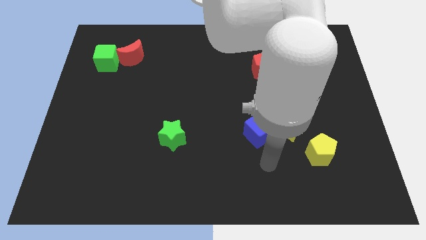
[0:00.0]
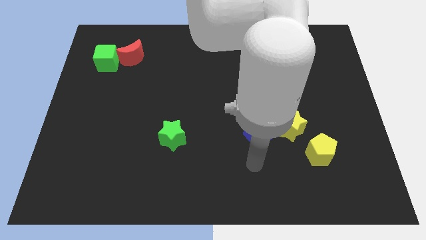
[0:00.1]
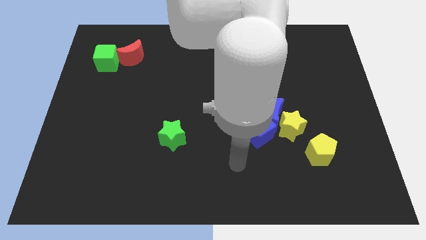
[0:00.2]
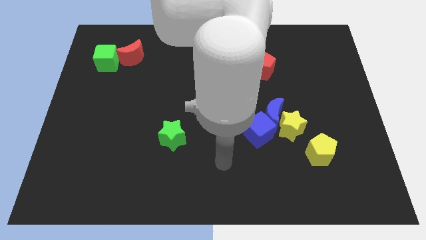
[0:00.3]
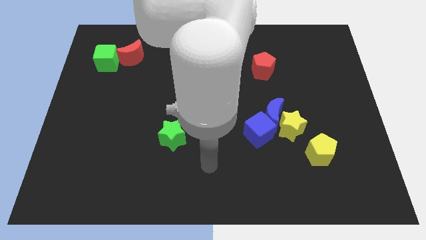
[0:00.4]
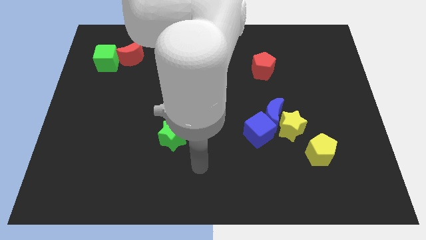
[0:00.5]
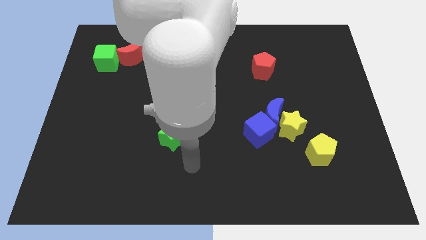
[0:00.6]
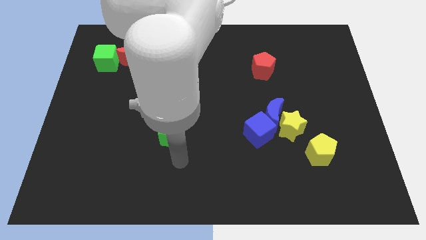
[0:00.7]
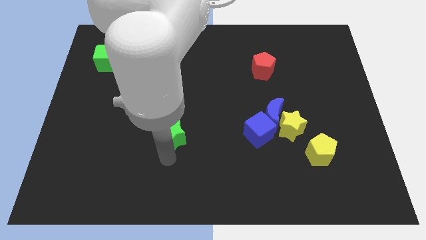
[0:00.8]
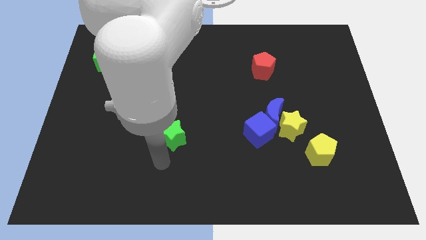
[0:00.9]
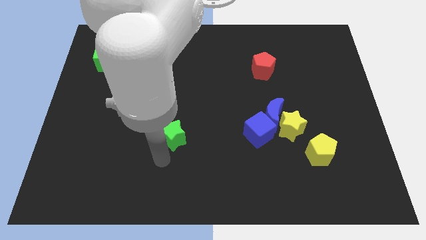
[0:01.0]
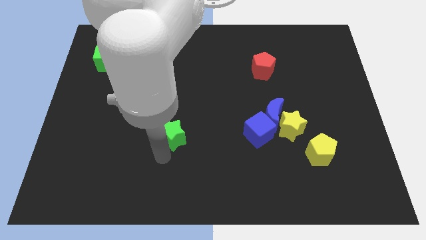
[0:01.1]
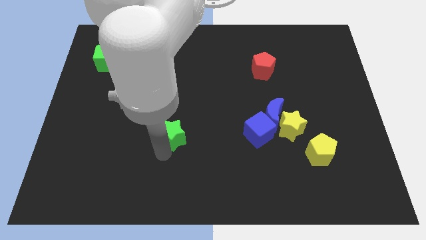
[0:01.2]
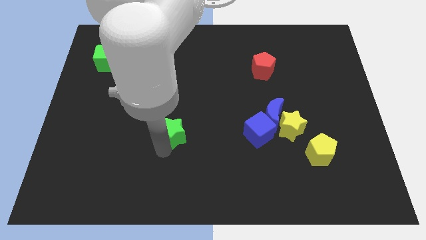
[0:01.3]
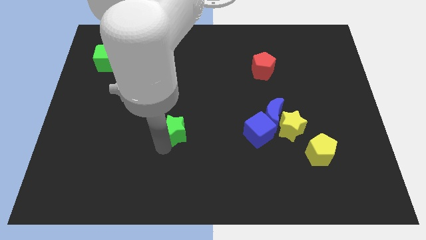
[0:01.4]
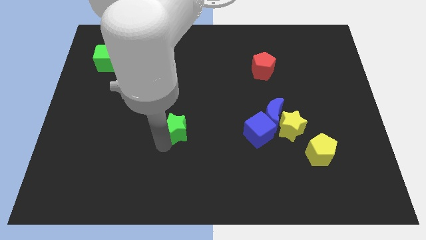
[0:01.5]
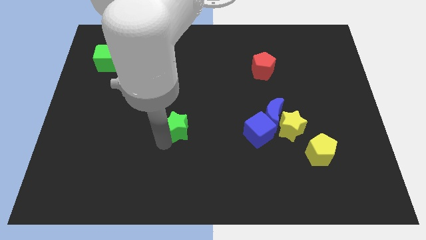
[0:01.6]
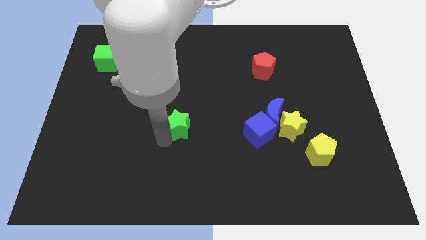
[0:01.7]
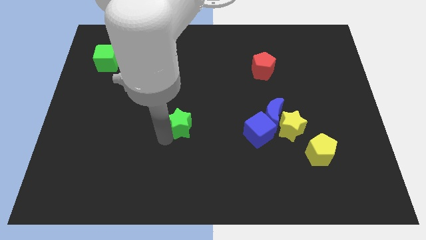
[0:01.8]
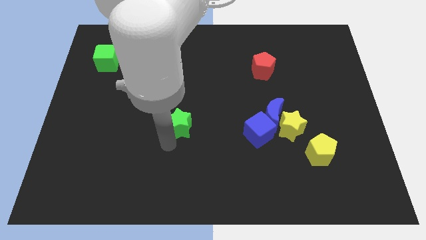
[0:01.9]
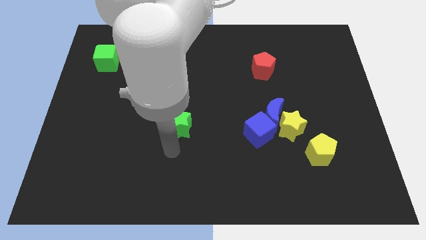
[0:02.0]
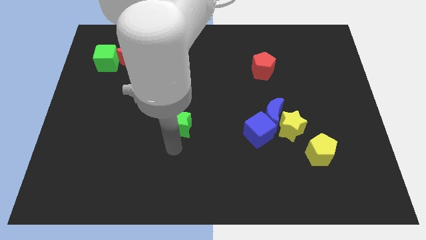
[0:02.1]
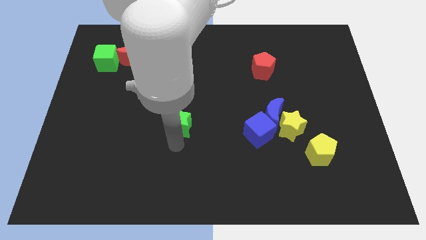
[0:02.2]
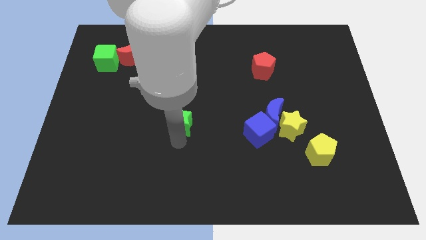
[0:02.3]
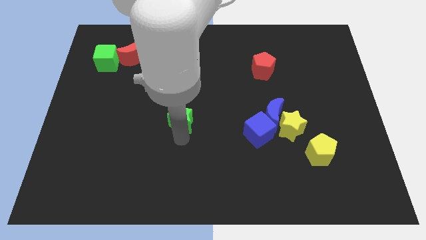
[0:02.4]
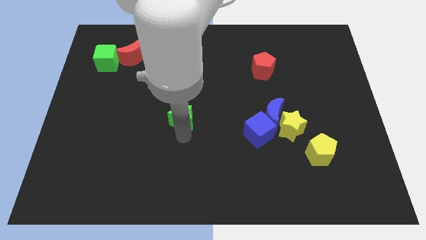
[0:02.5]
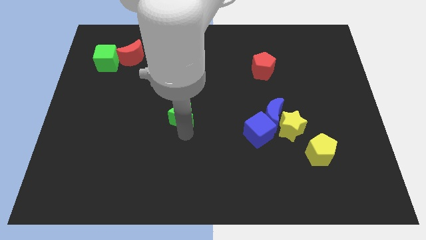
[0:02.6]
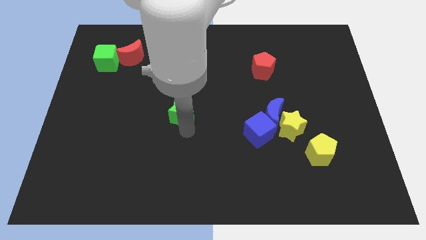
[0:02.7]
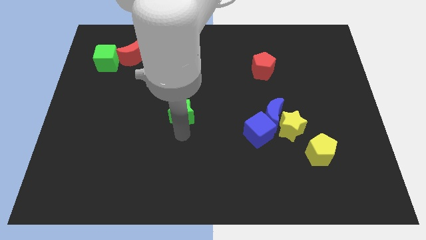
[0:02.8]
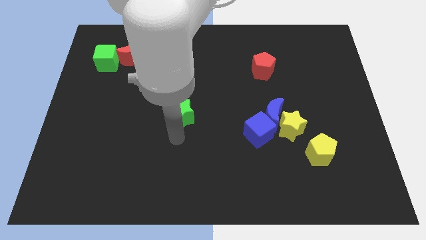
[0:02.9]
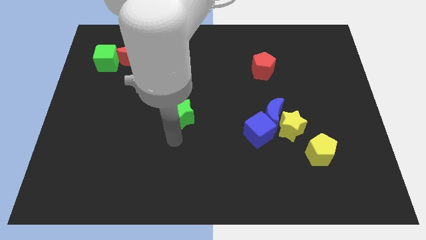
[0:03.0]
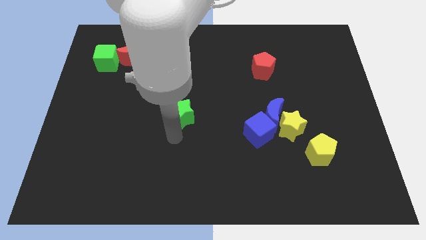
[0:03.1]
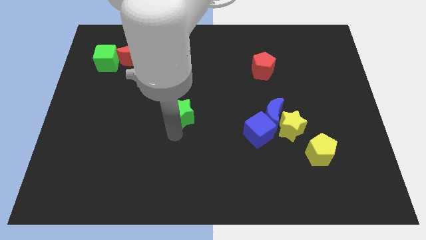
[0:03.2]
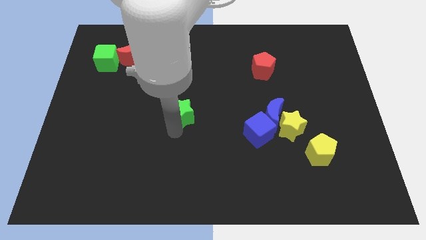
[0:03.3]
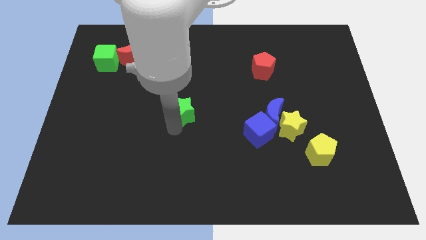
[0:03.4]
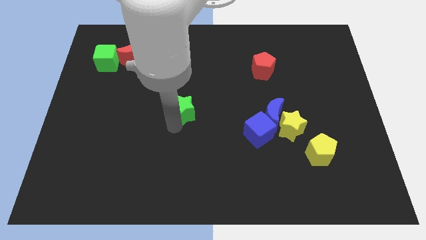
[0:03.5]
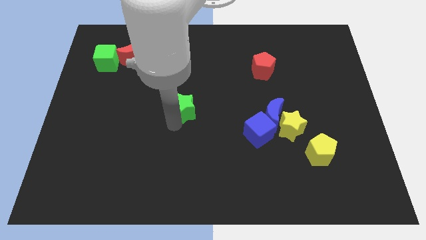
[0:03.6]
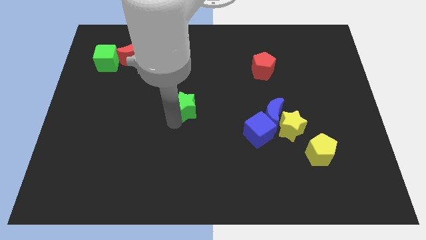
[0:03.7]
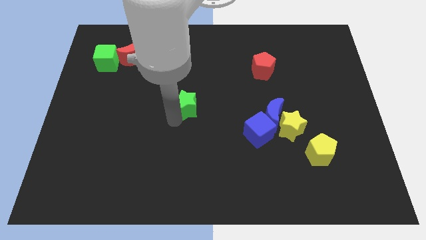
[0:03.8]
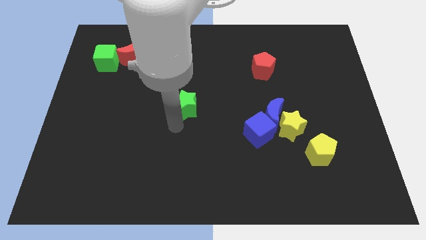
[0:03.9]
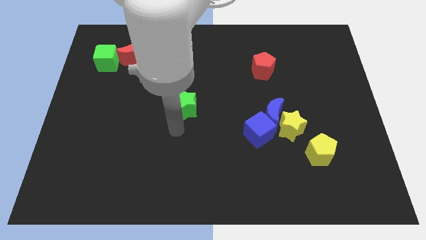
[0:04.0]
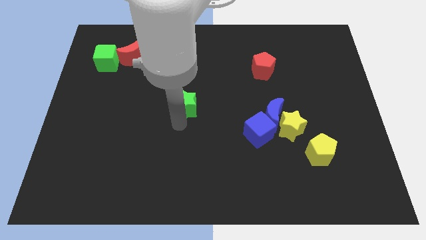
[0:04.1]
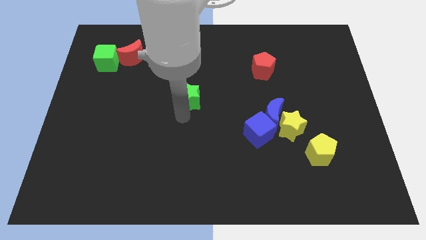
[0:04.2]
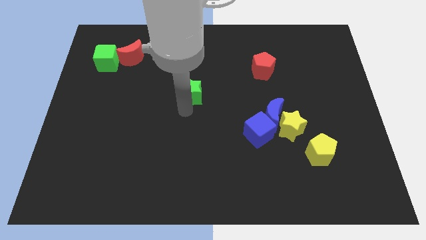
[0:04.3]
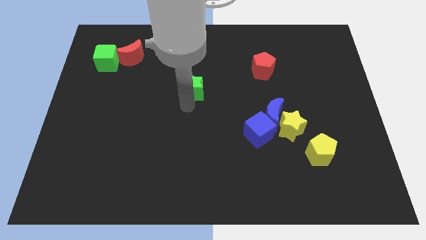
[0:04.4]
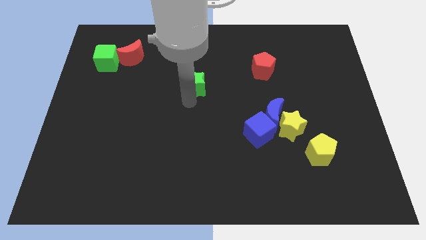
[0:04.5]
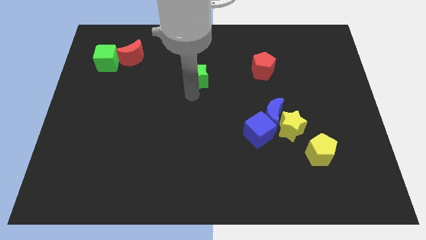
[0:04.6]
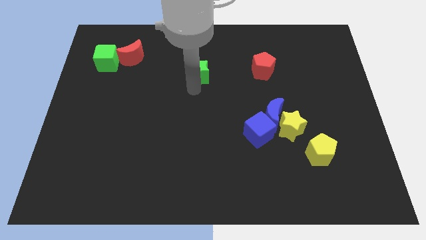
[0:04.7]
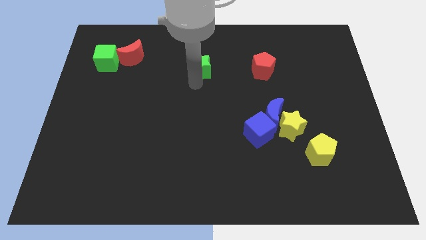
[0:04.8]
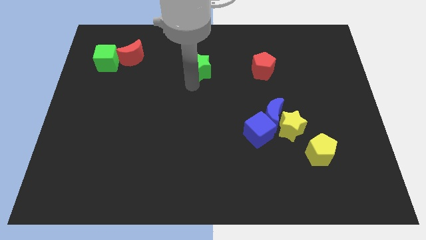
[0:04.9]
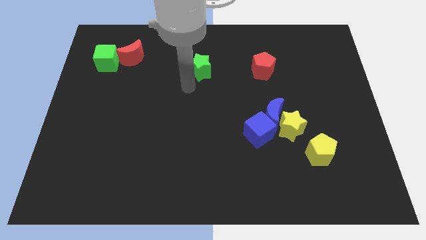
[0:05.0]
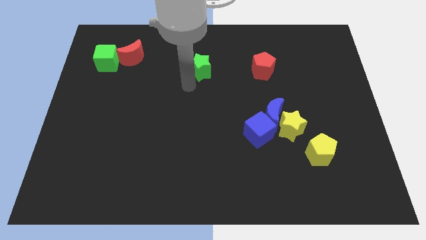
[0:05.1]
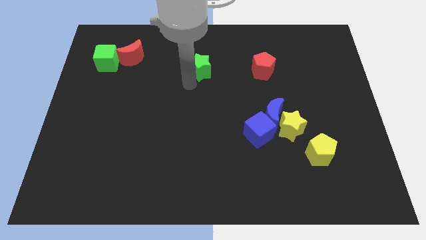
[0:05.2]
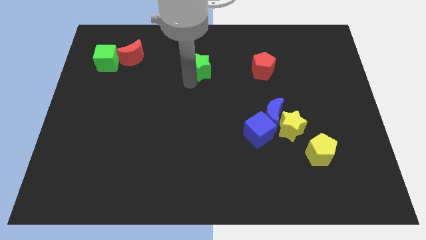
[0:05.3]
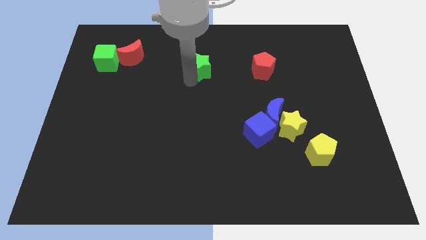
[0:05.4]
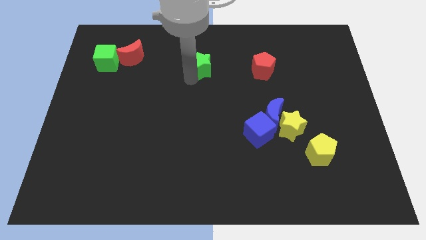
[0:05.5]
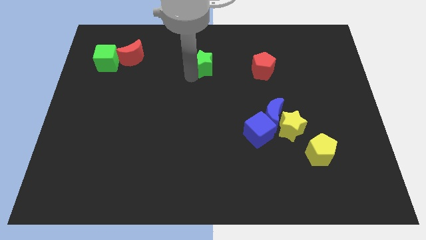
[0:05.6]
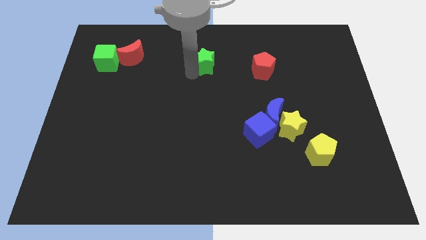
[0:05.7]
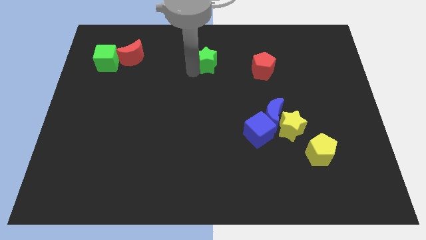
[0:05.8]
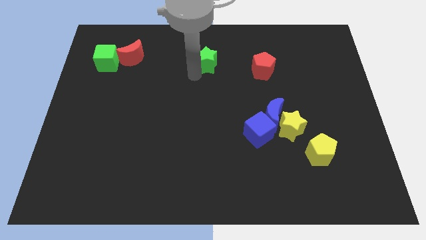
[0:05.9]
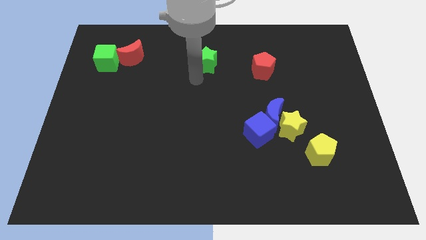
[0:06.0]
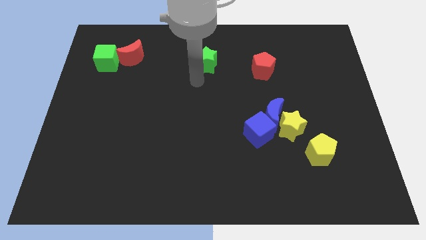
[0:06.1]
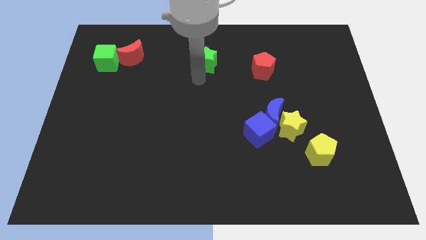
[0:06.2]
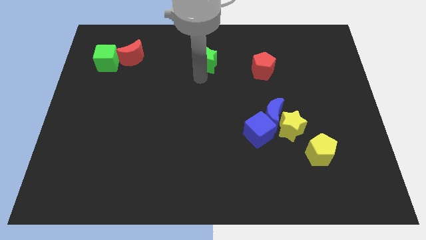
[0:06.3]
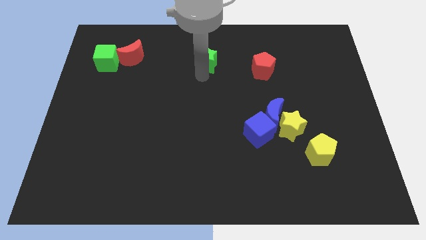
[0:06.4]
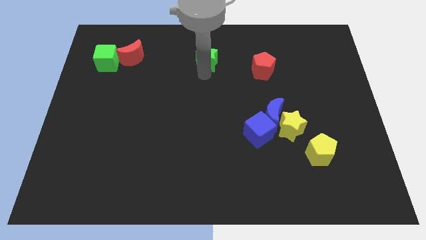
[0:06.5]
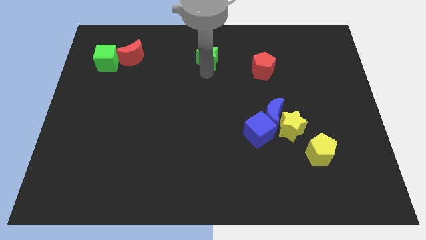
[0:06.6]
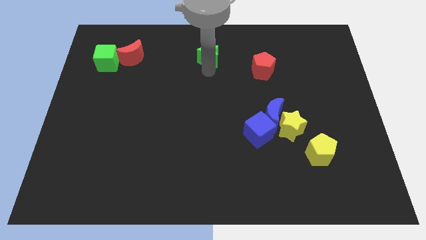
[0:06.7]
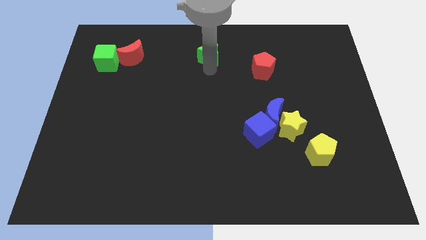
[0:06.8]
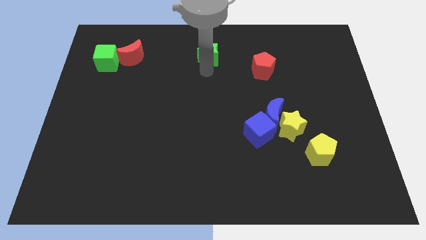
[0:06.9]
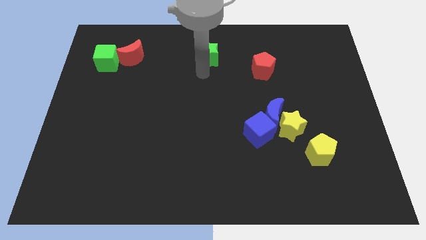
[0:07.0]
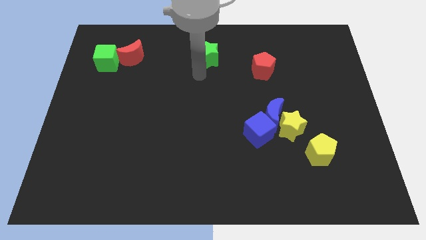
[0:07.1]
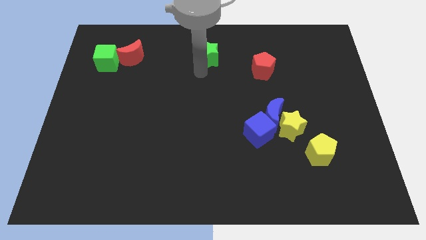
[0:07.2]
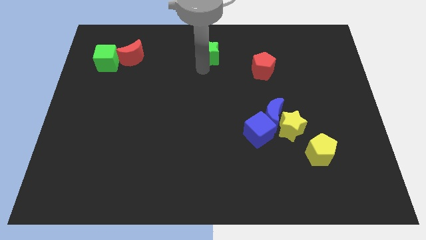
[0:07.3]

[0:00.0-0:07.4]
slide the green star to the top
